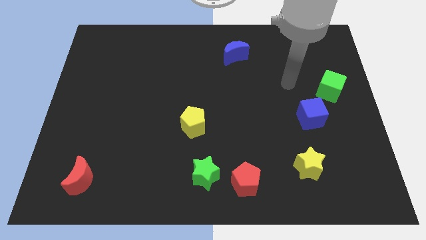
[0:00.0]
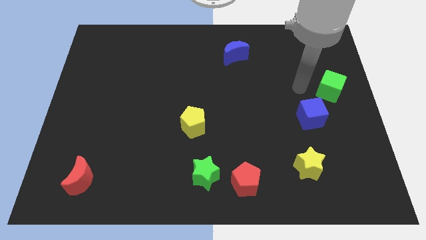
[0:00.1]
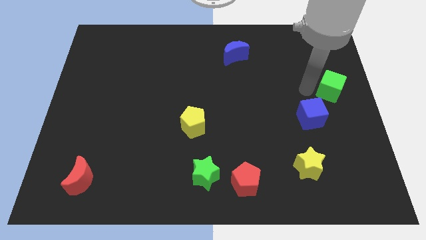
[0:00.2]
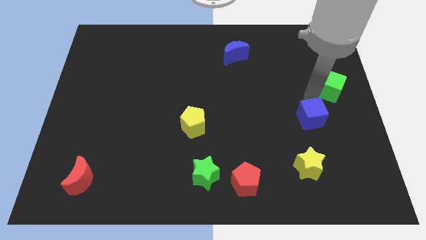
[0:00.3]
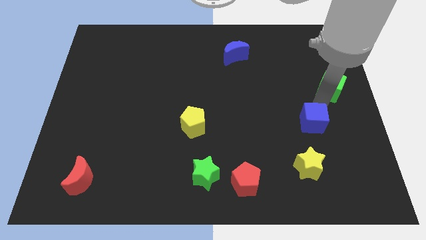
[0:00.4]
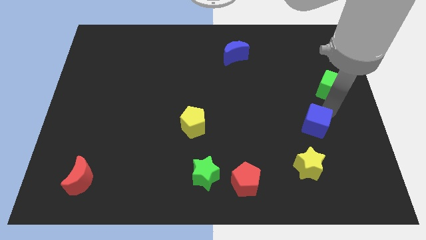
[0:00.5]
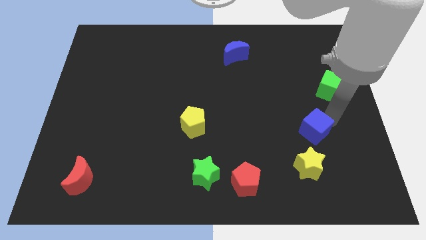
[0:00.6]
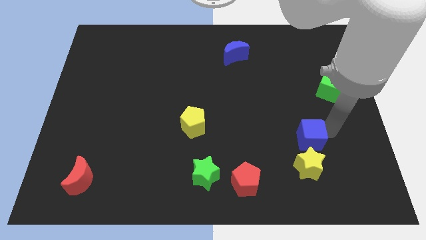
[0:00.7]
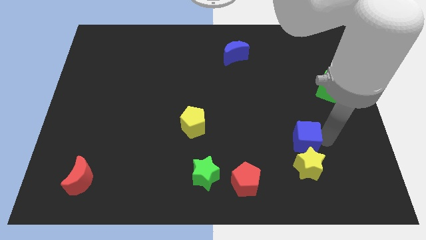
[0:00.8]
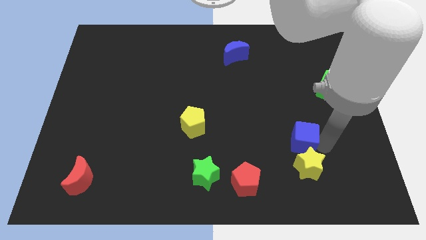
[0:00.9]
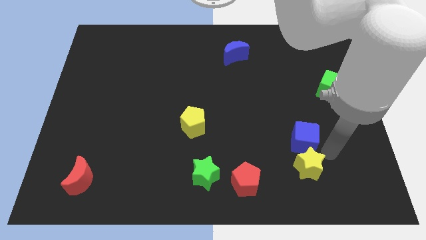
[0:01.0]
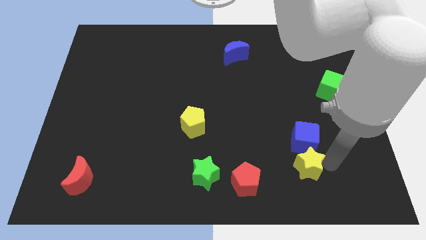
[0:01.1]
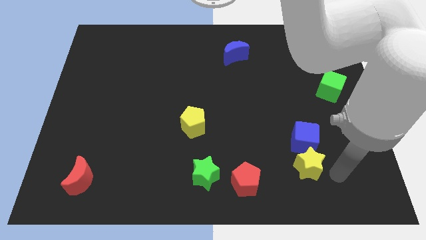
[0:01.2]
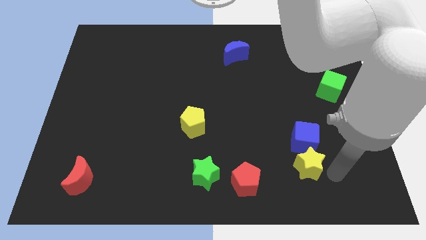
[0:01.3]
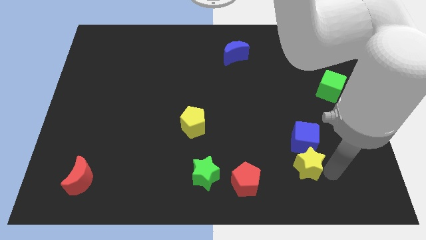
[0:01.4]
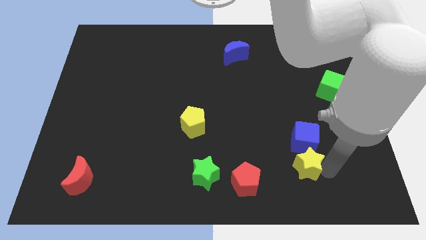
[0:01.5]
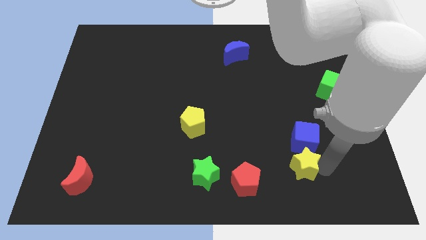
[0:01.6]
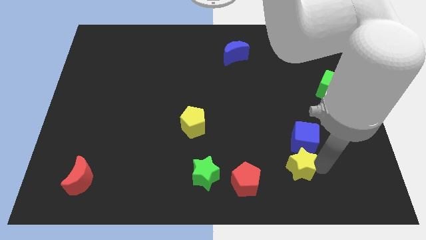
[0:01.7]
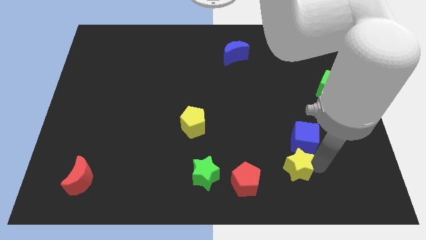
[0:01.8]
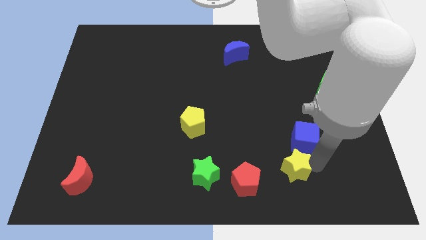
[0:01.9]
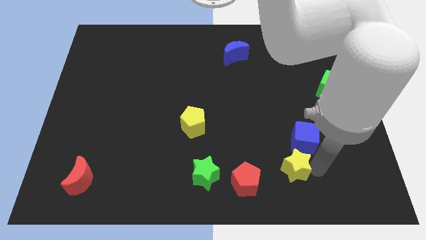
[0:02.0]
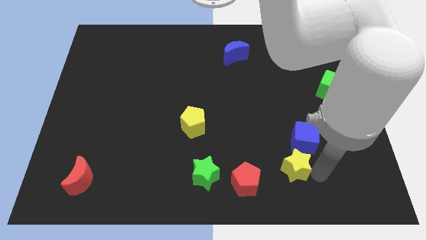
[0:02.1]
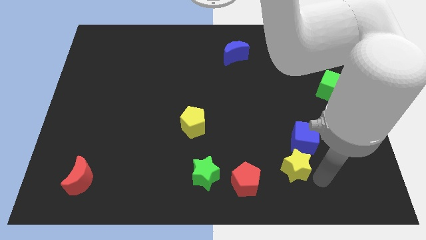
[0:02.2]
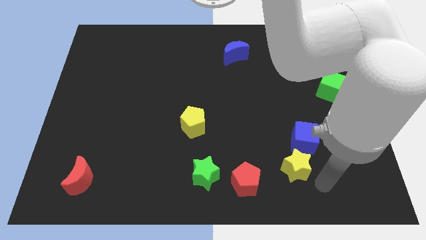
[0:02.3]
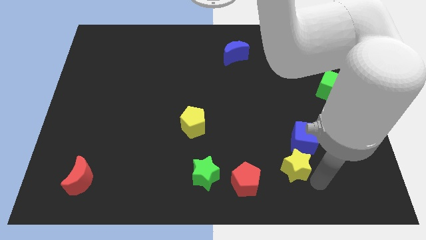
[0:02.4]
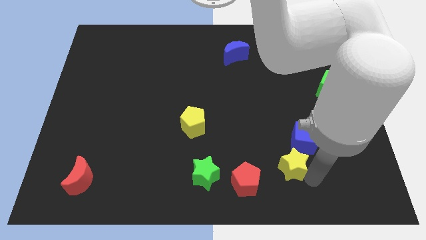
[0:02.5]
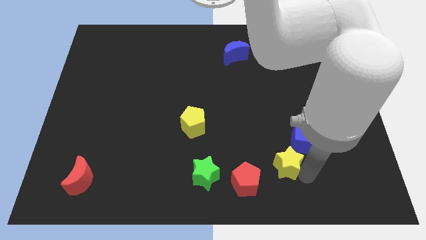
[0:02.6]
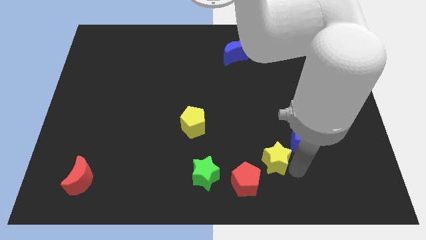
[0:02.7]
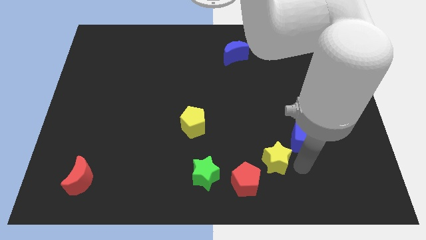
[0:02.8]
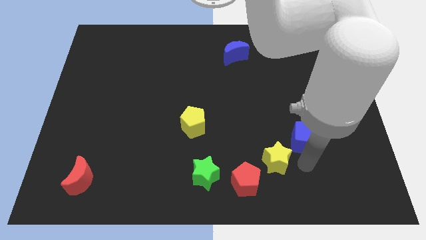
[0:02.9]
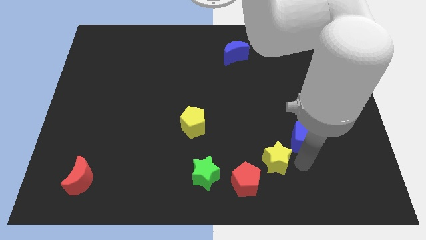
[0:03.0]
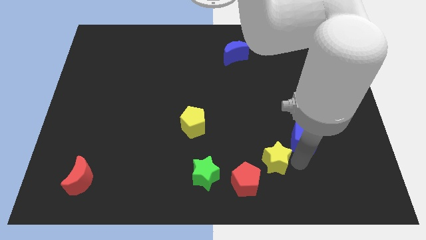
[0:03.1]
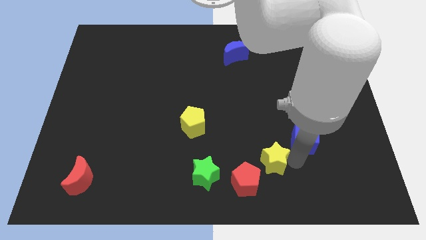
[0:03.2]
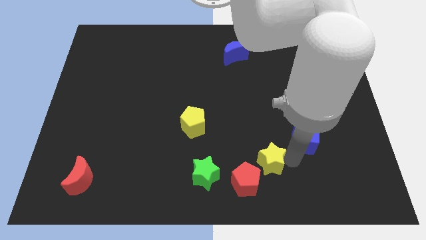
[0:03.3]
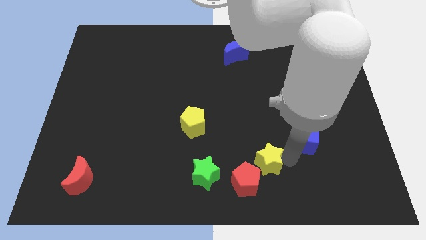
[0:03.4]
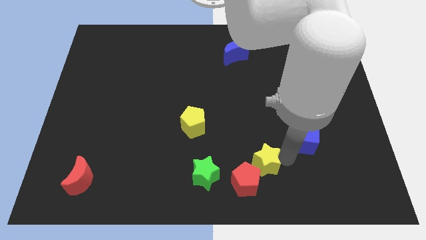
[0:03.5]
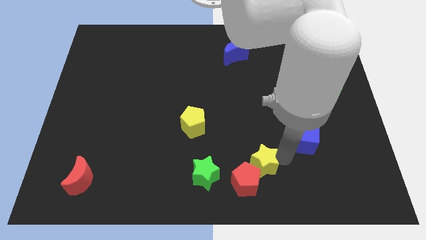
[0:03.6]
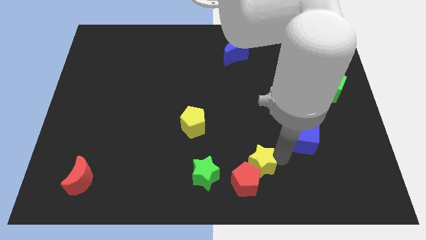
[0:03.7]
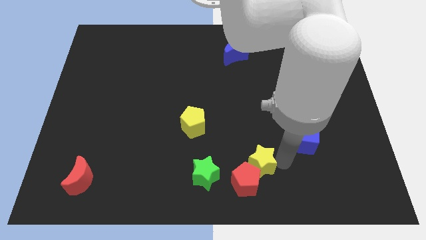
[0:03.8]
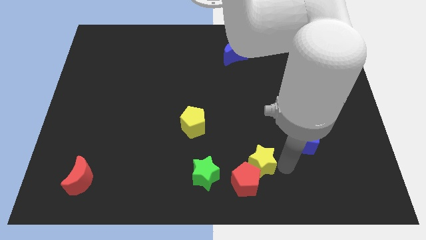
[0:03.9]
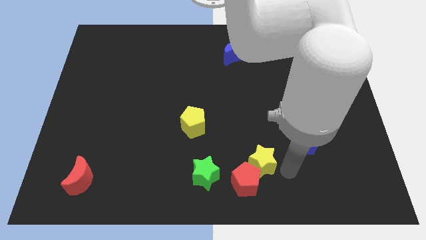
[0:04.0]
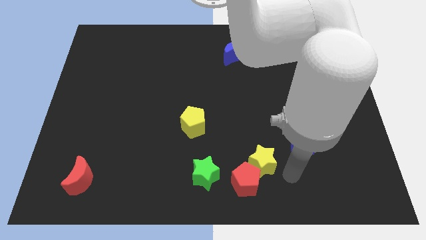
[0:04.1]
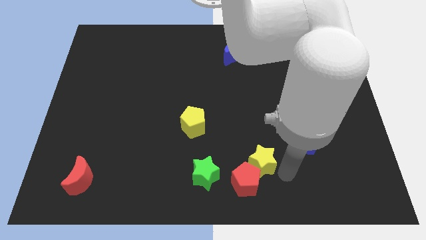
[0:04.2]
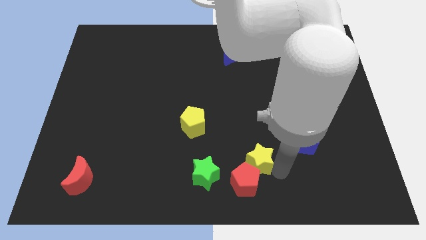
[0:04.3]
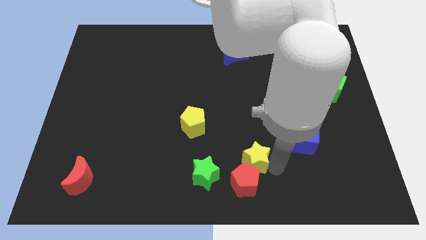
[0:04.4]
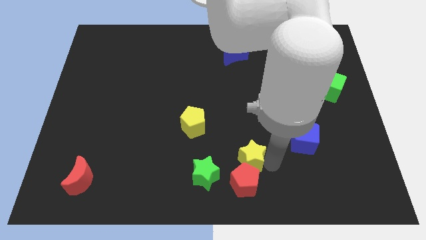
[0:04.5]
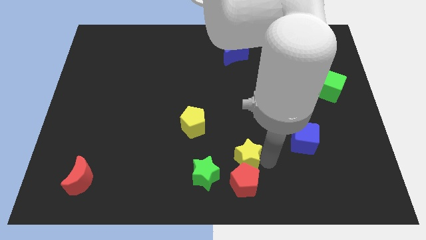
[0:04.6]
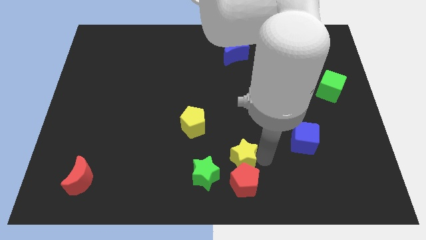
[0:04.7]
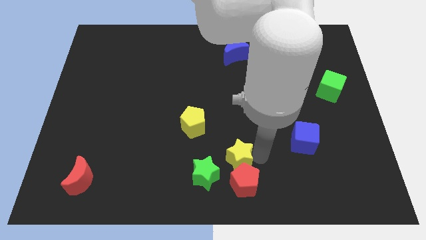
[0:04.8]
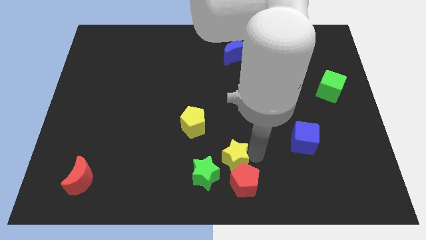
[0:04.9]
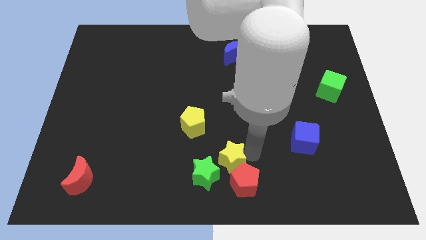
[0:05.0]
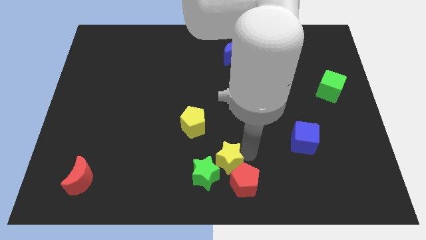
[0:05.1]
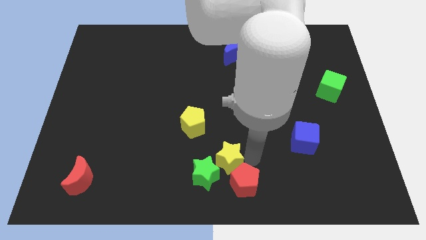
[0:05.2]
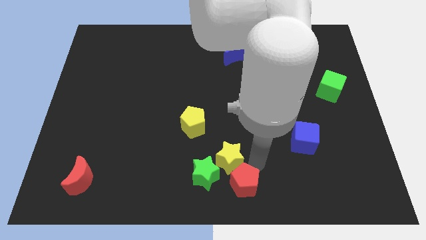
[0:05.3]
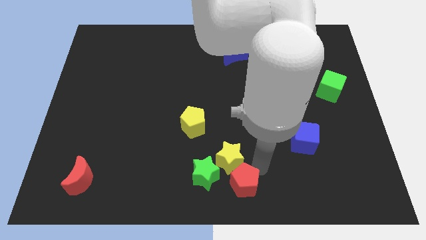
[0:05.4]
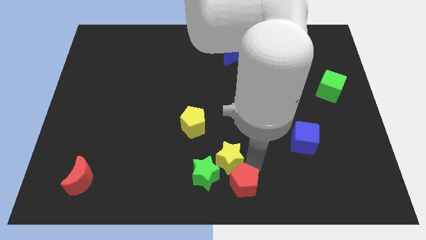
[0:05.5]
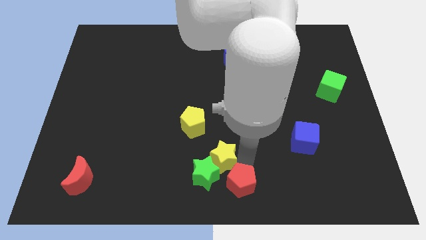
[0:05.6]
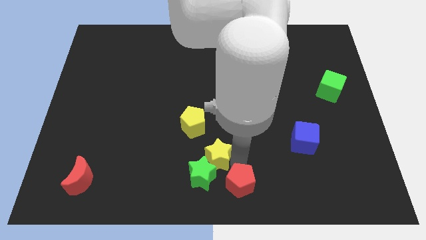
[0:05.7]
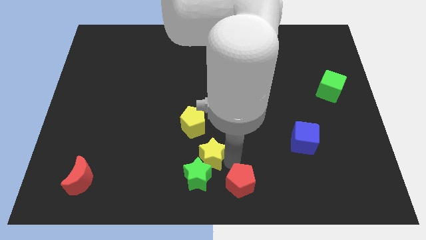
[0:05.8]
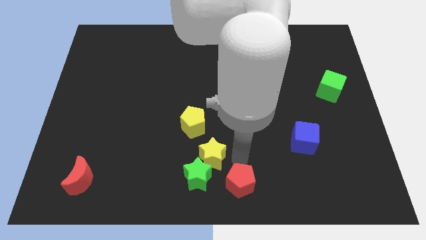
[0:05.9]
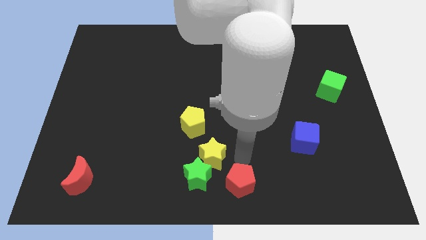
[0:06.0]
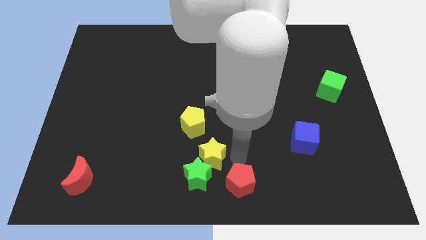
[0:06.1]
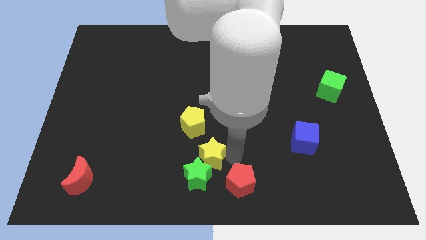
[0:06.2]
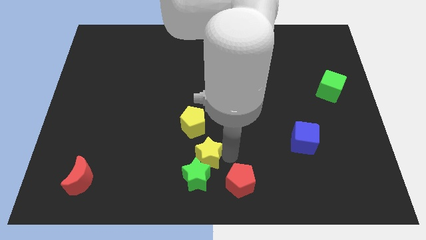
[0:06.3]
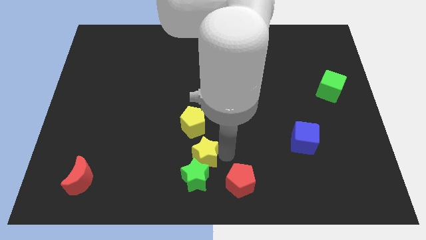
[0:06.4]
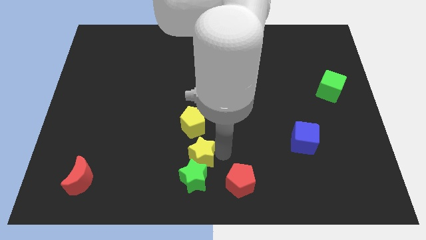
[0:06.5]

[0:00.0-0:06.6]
slide the yellow star to the top left side of the green star

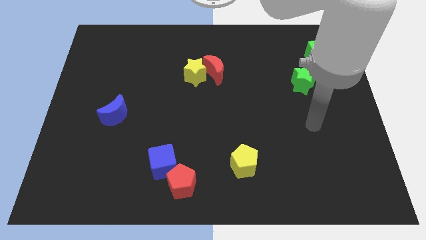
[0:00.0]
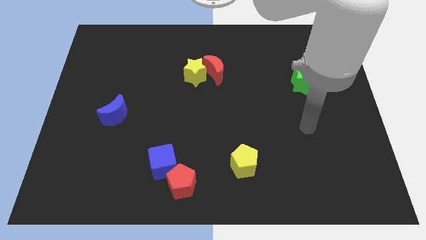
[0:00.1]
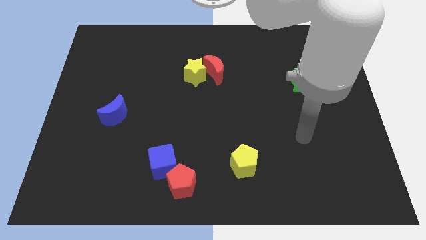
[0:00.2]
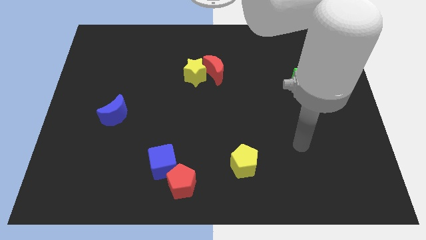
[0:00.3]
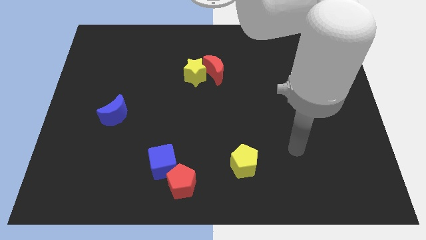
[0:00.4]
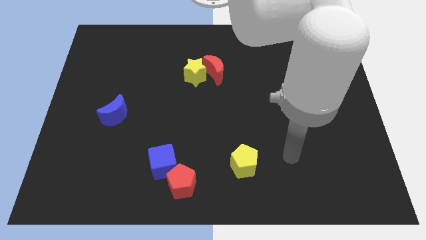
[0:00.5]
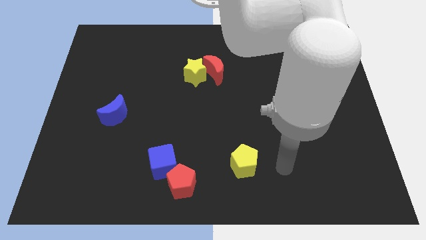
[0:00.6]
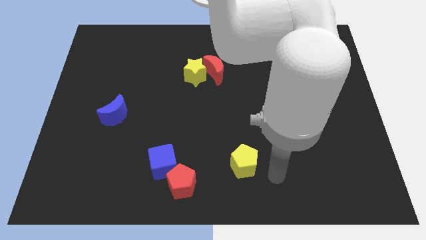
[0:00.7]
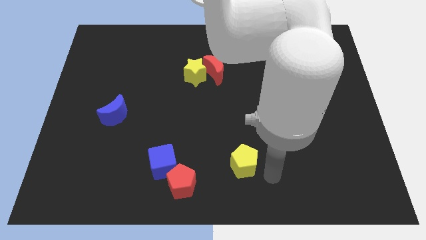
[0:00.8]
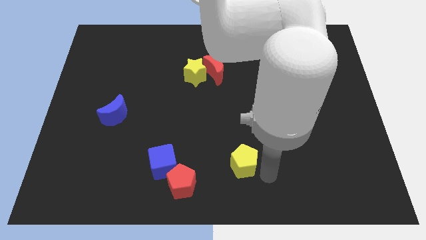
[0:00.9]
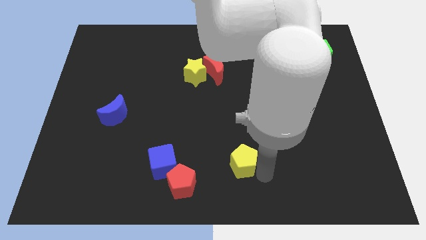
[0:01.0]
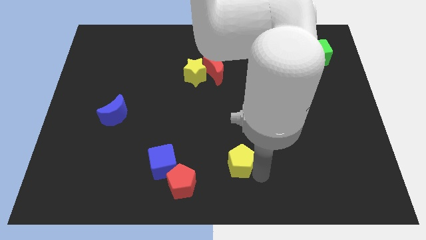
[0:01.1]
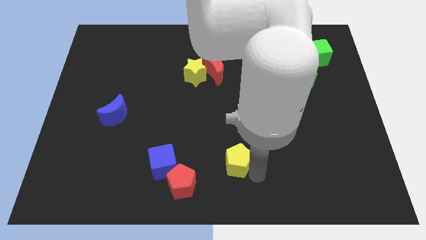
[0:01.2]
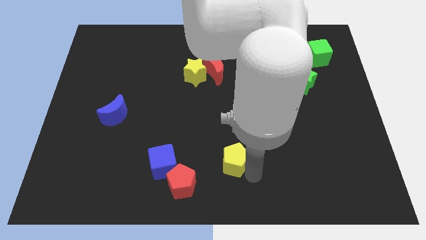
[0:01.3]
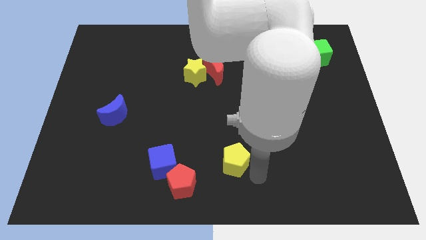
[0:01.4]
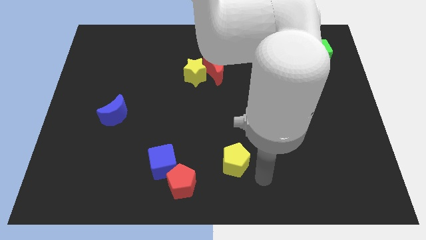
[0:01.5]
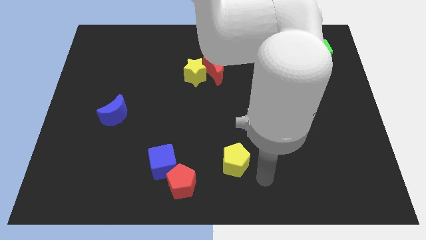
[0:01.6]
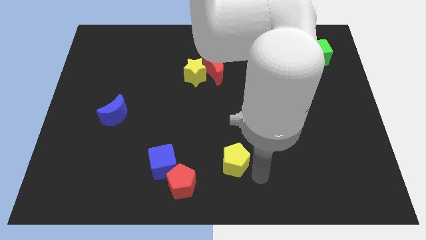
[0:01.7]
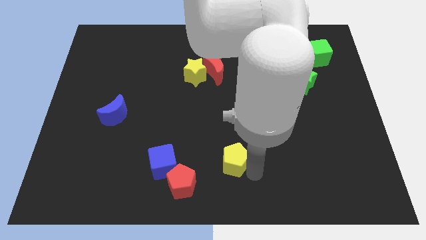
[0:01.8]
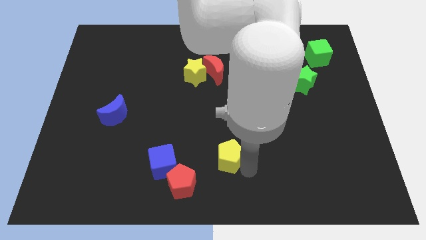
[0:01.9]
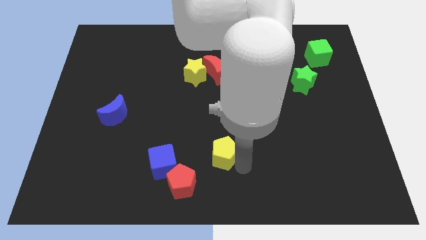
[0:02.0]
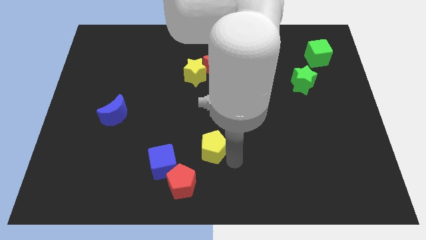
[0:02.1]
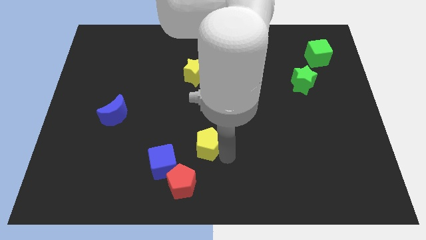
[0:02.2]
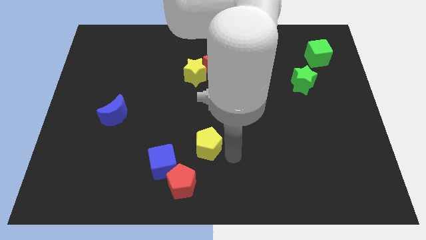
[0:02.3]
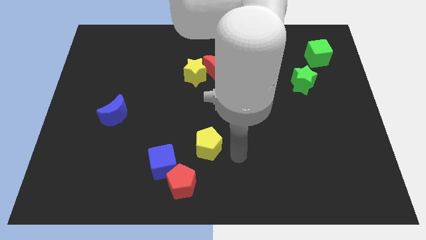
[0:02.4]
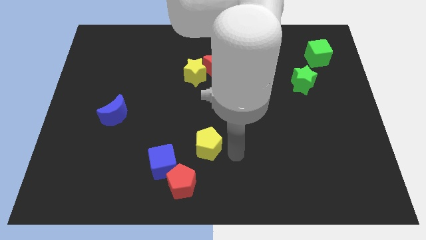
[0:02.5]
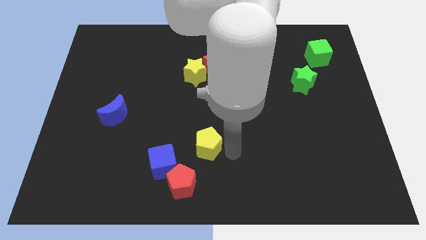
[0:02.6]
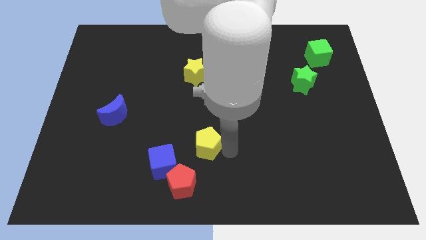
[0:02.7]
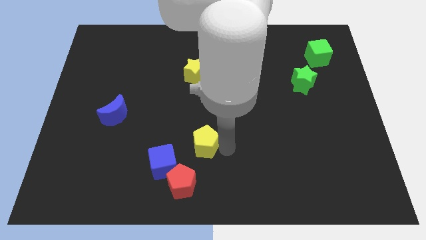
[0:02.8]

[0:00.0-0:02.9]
slide the yellow pentagon to the top side of the red pentagon
